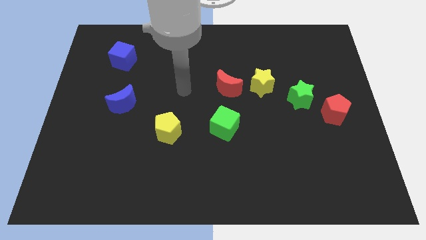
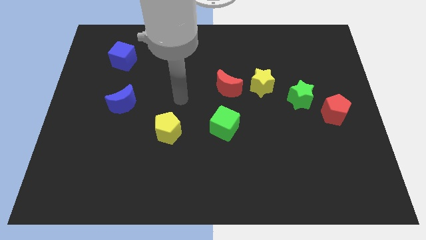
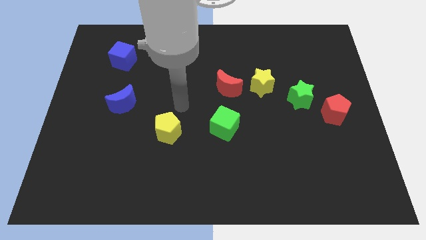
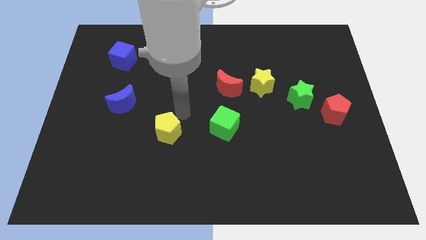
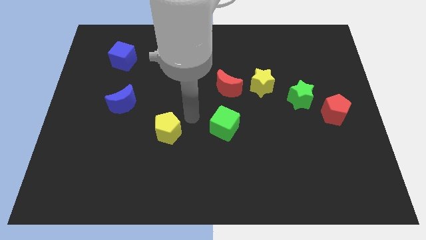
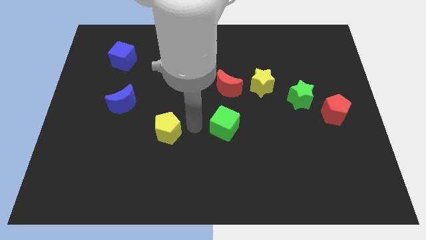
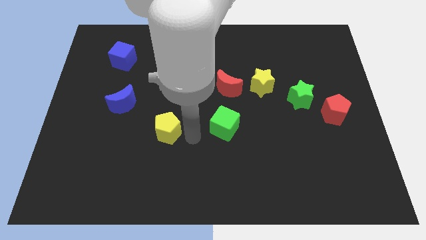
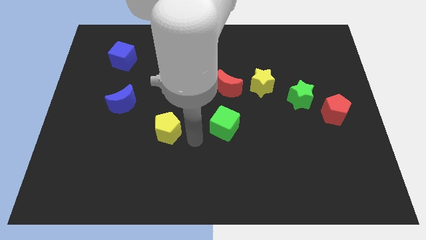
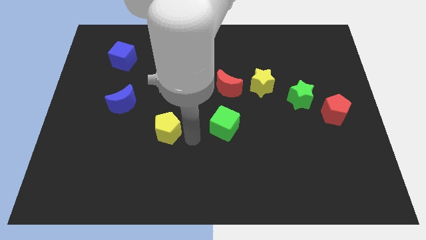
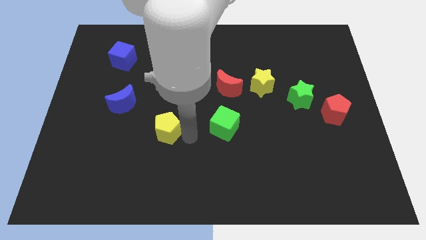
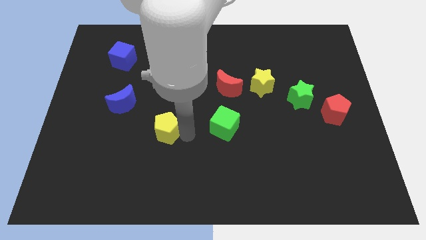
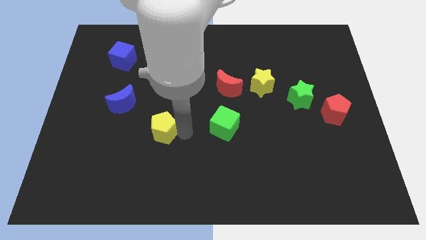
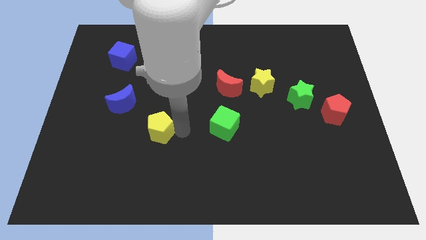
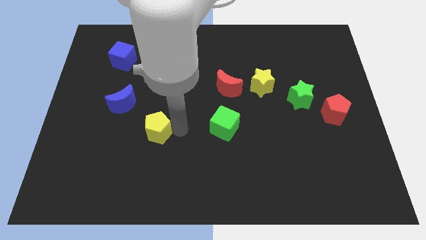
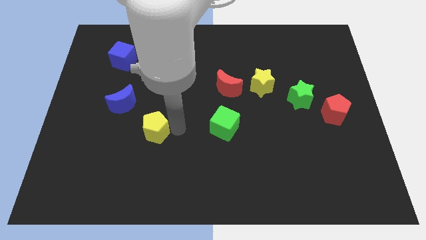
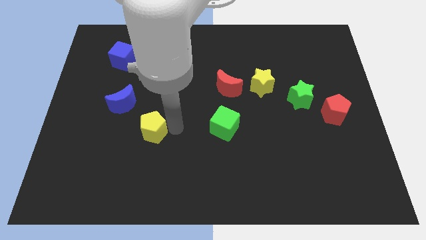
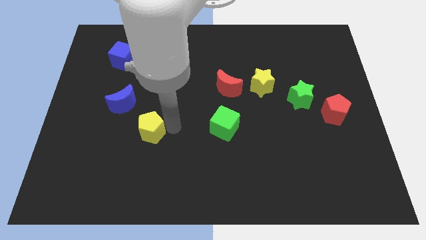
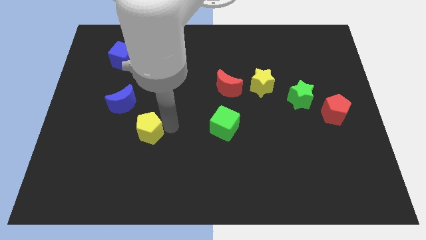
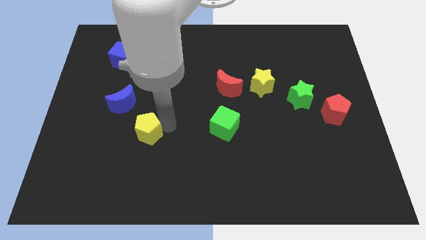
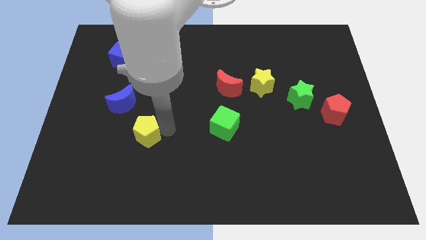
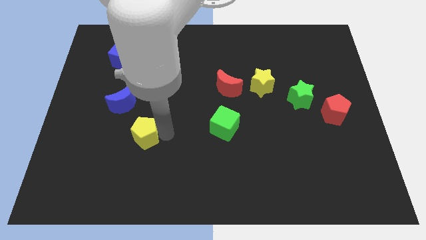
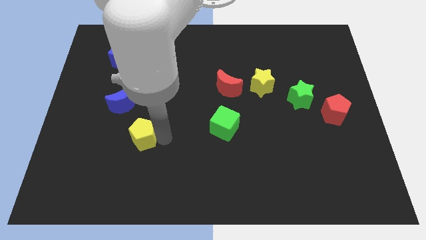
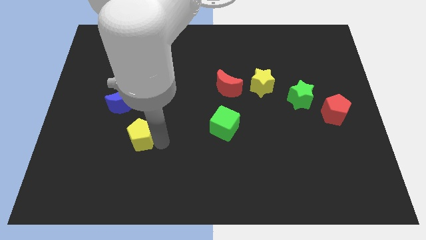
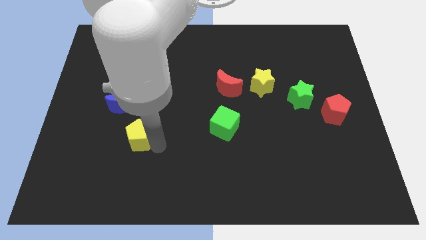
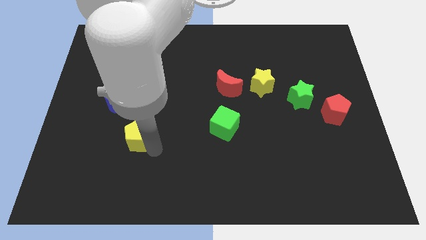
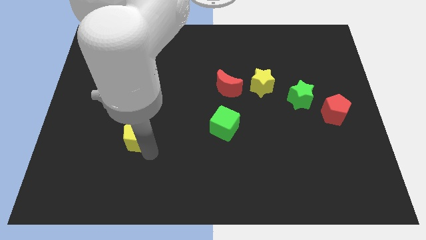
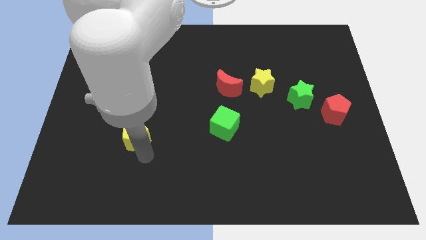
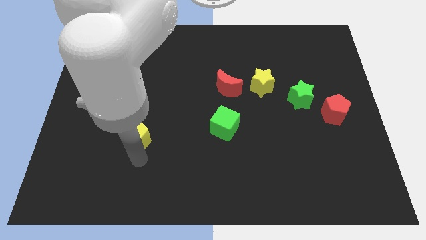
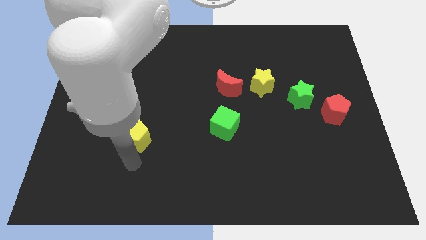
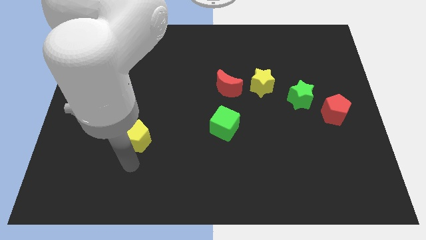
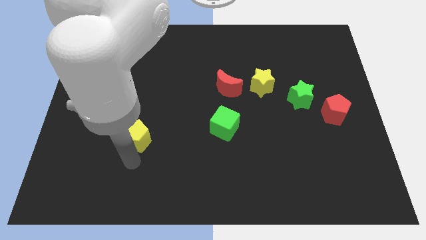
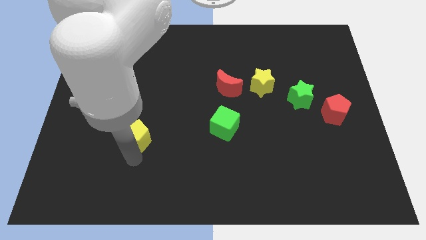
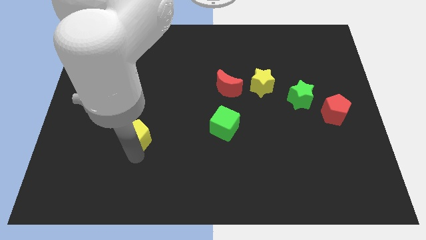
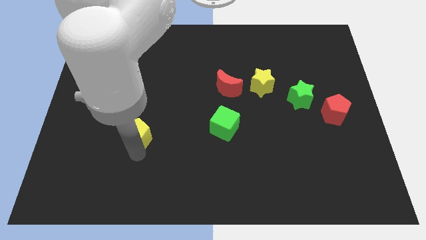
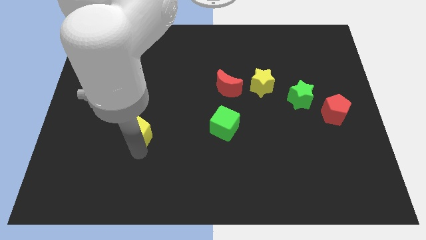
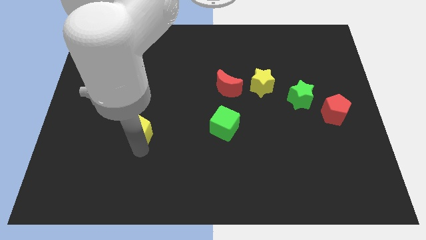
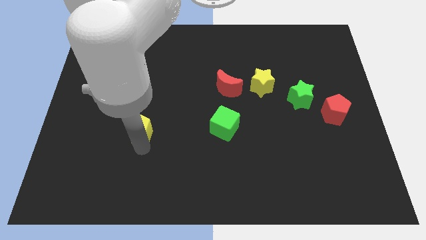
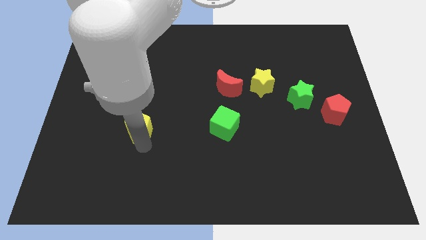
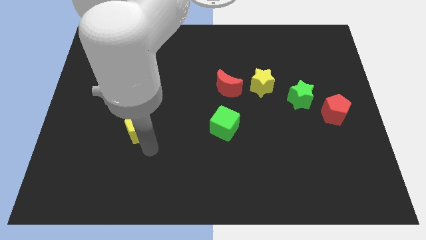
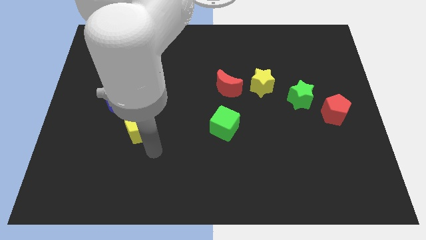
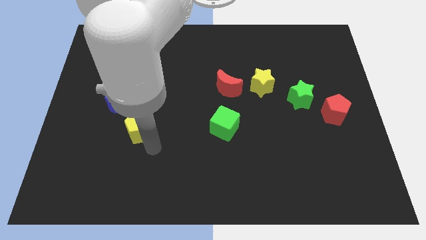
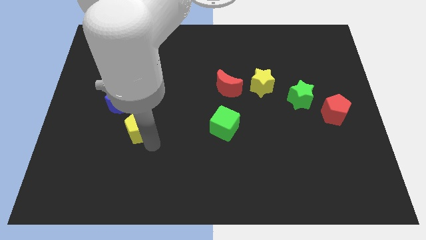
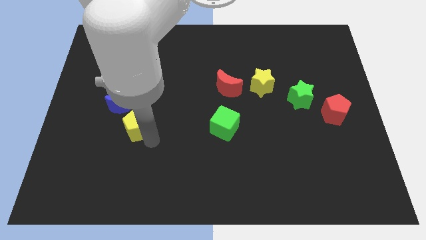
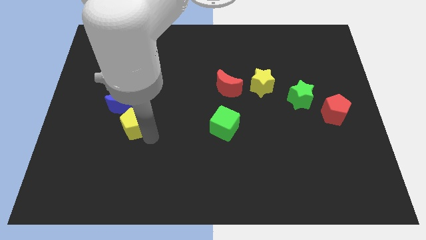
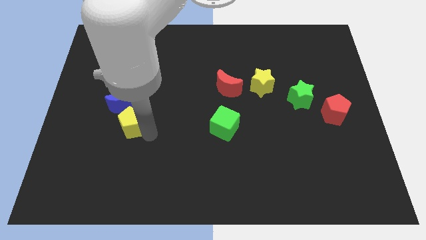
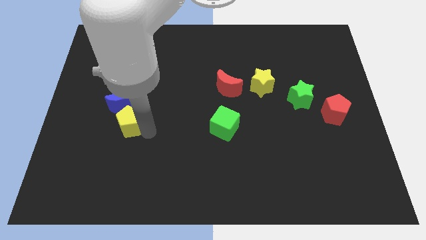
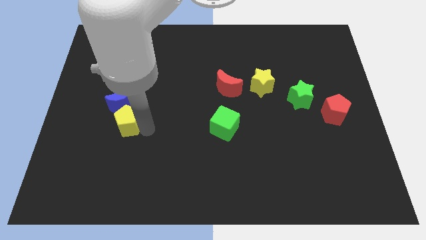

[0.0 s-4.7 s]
push the yellow pentagon next to the blue moon

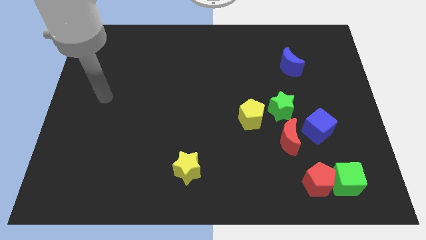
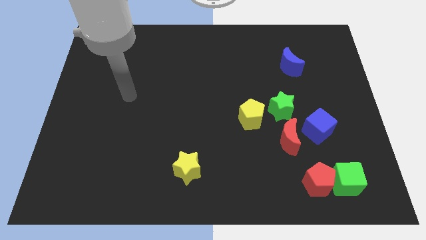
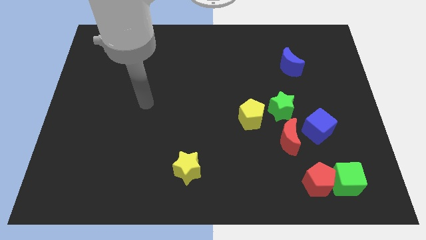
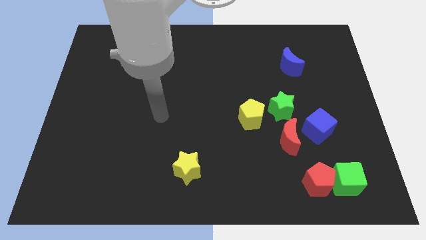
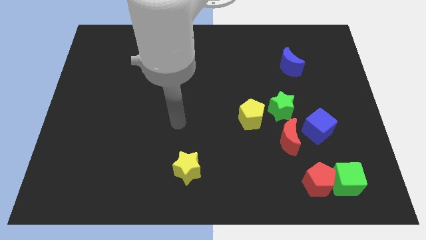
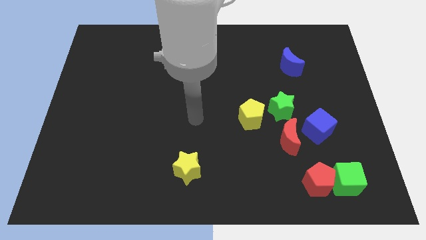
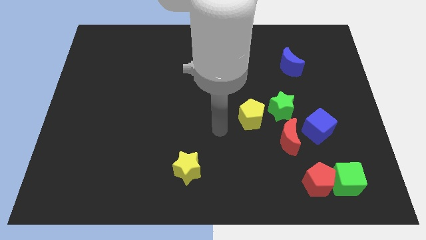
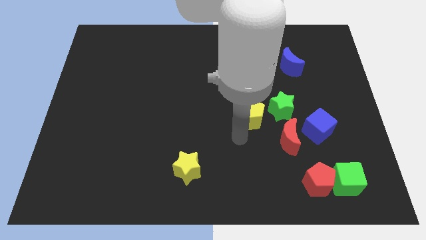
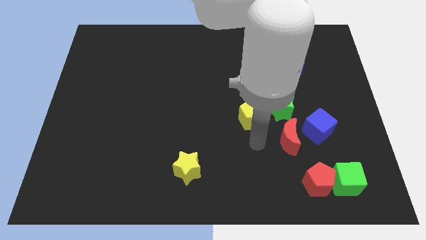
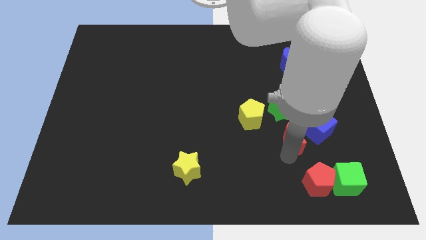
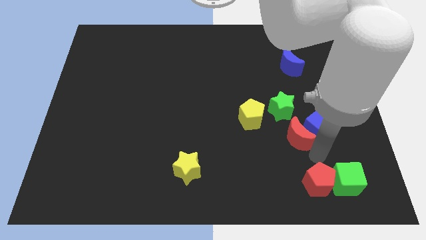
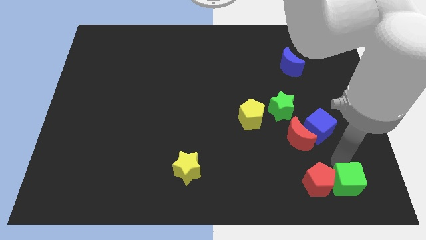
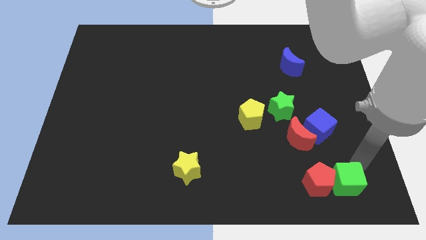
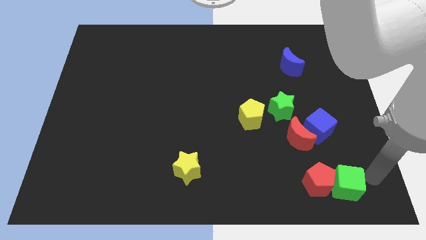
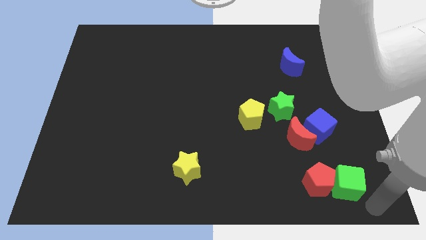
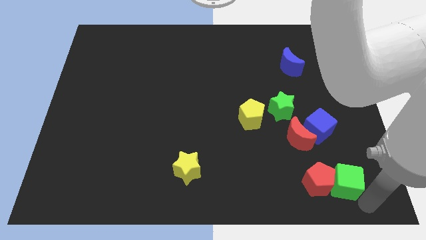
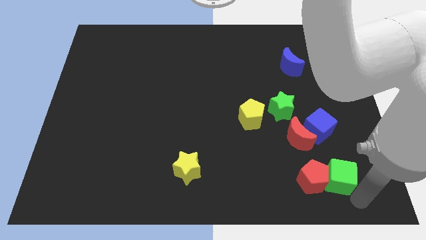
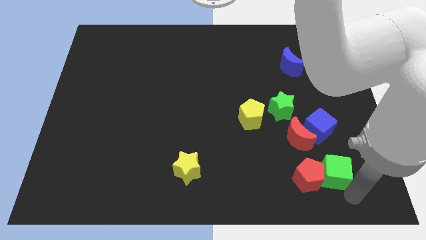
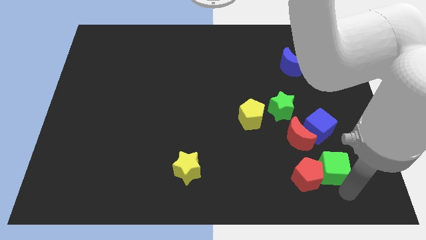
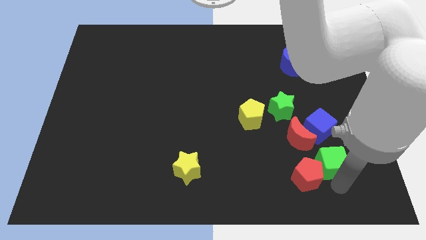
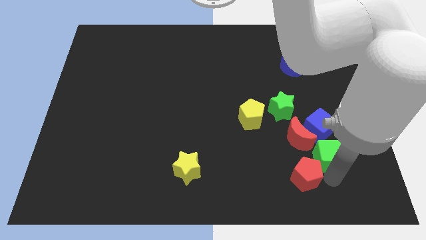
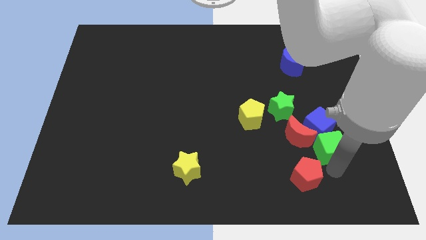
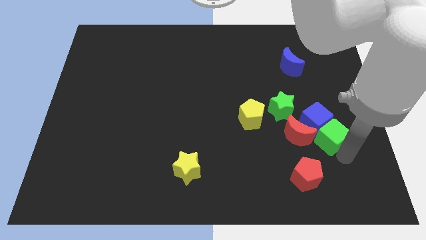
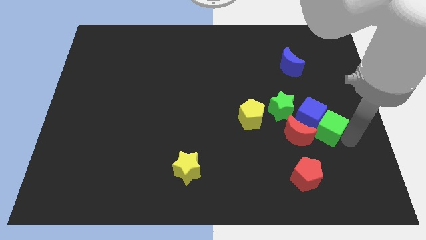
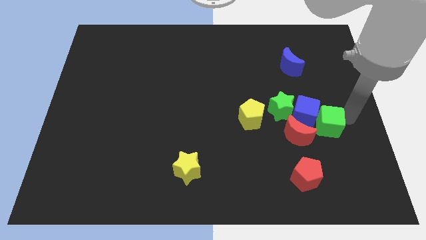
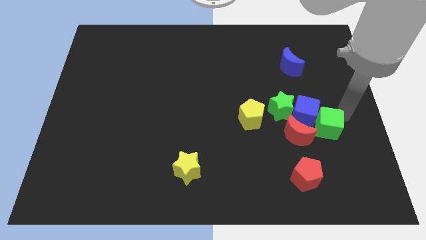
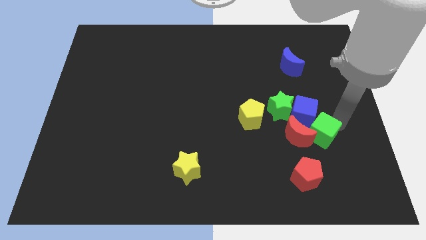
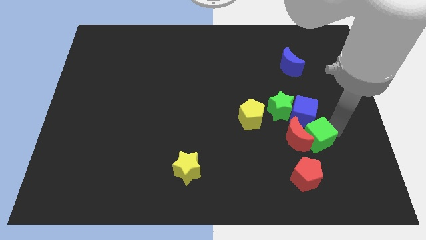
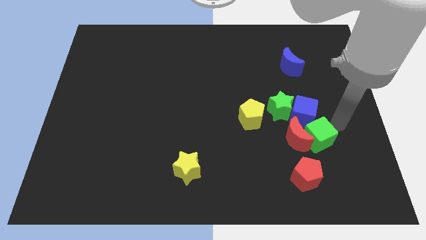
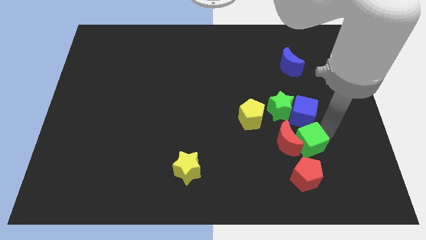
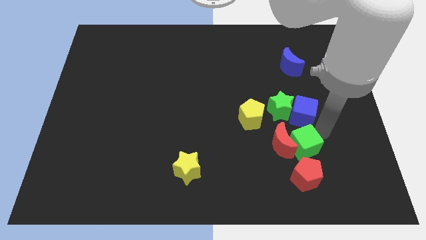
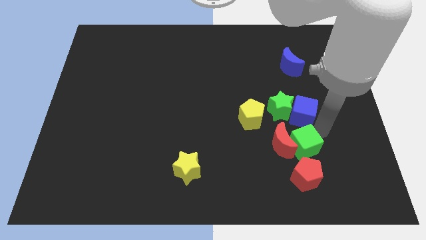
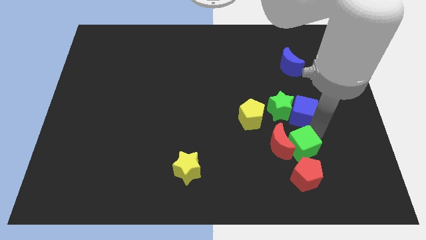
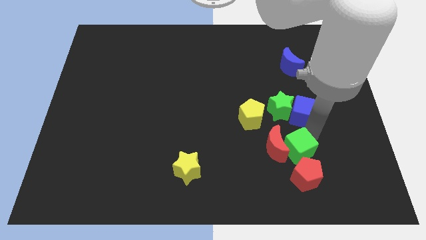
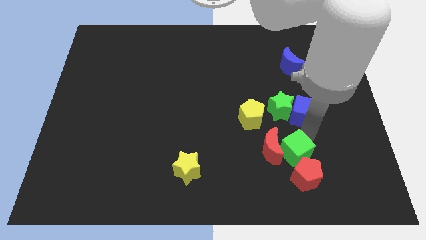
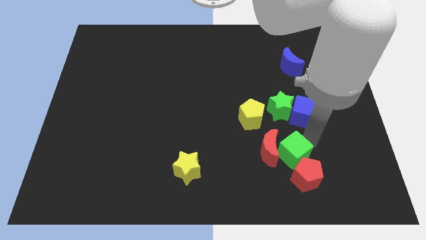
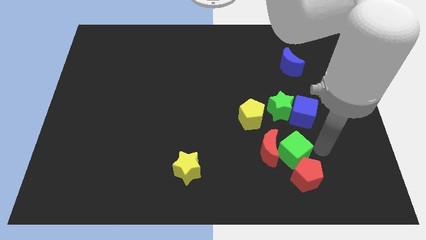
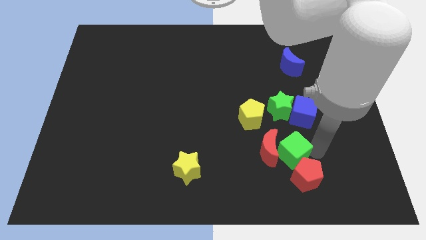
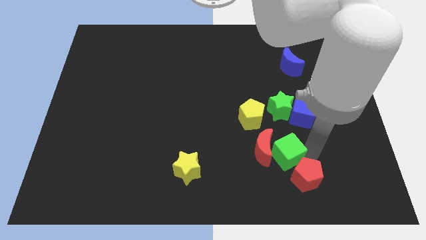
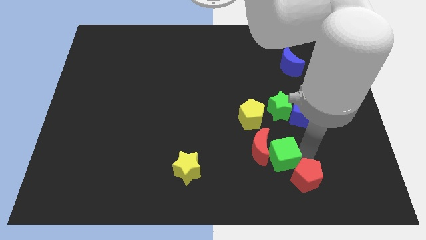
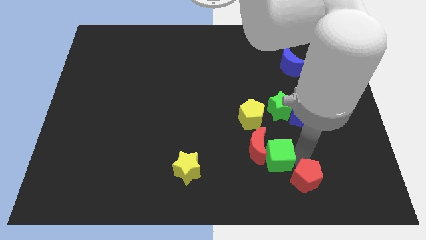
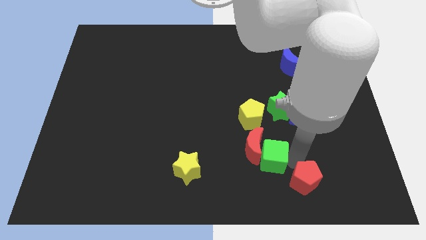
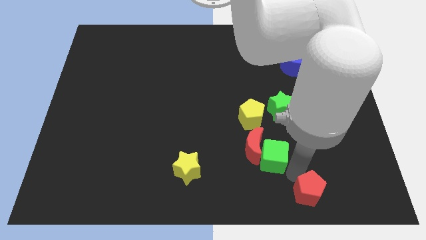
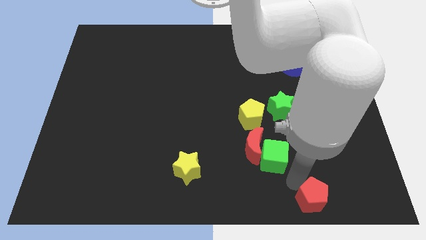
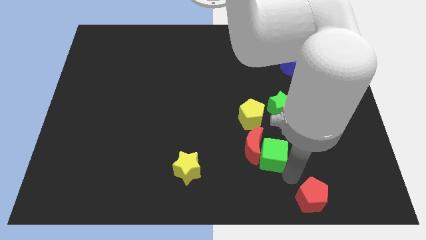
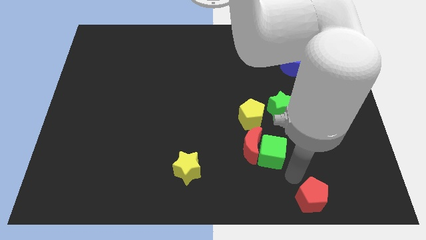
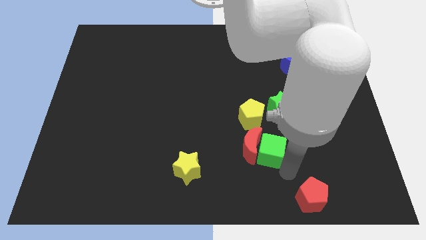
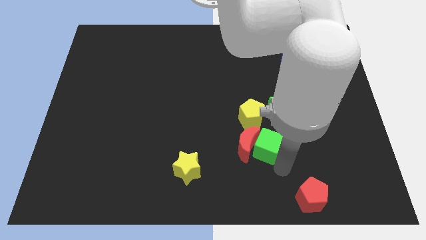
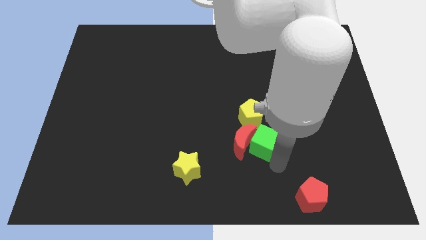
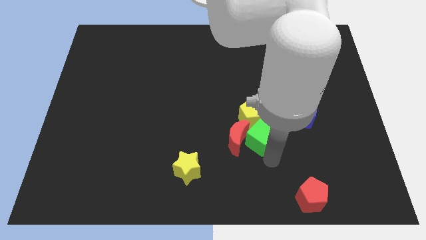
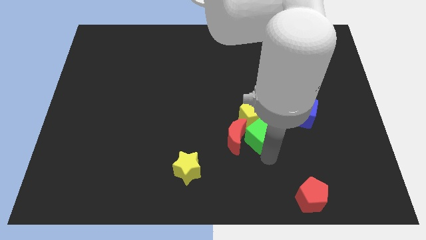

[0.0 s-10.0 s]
push the green cube close to the yellow pentagon
